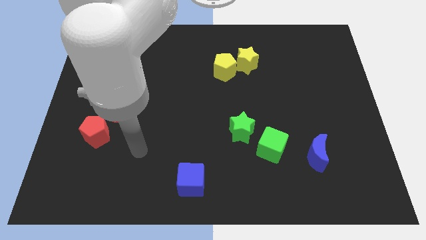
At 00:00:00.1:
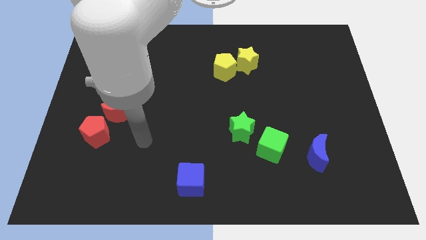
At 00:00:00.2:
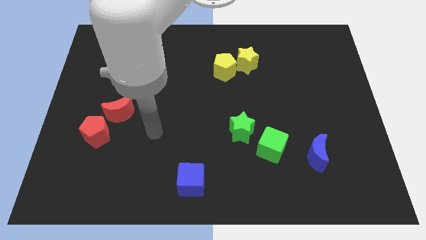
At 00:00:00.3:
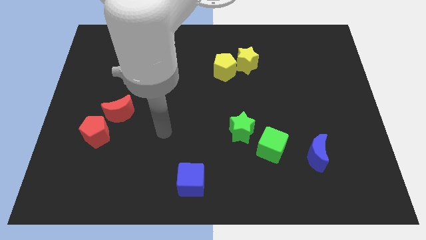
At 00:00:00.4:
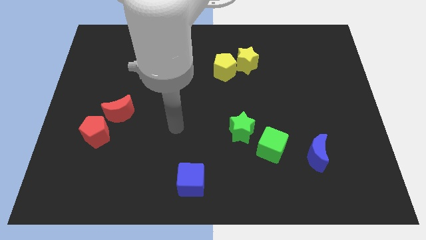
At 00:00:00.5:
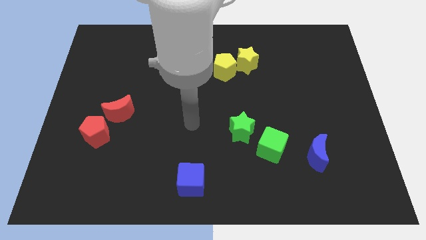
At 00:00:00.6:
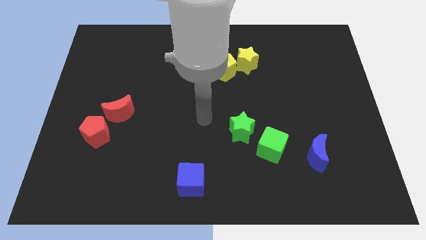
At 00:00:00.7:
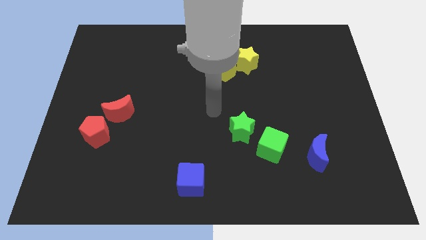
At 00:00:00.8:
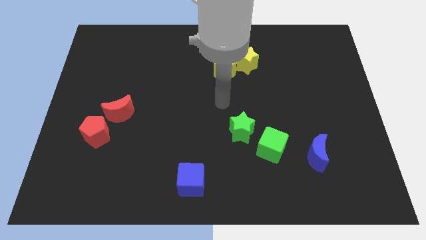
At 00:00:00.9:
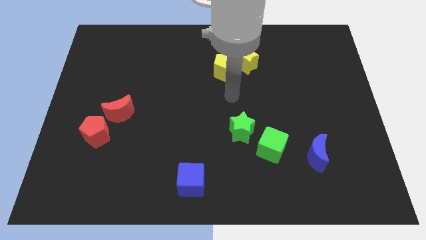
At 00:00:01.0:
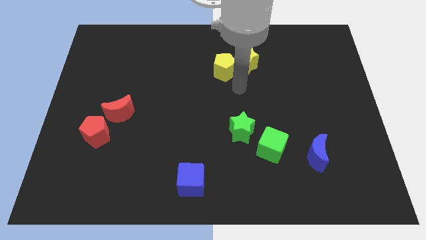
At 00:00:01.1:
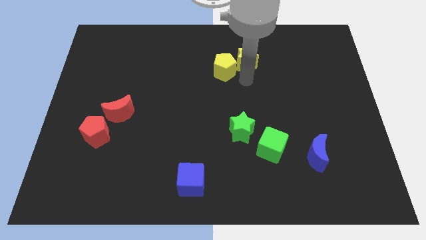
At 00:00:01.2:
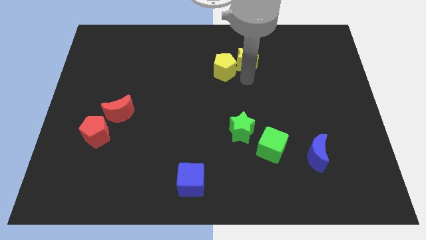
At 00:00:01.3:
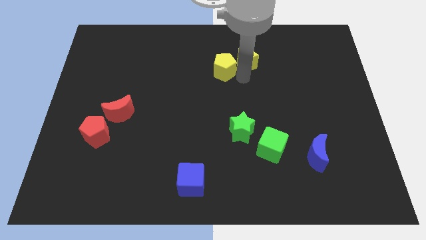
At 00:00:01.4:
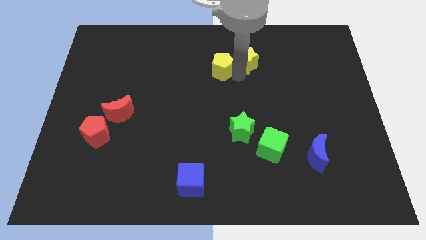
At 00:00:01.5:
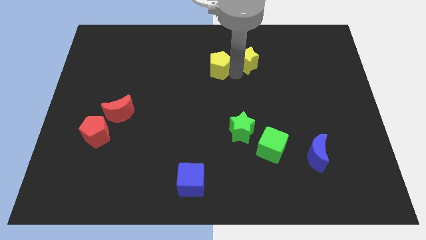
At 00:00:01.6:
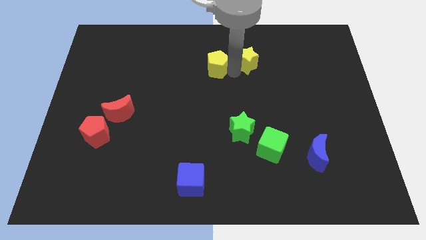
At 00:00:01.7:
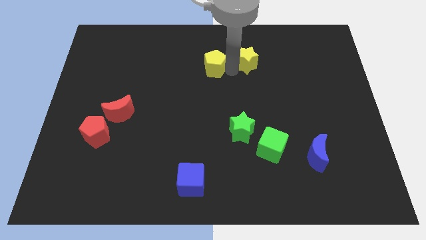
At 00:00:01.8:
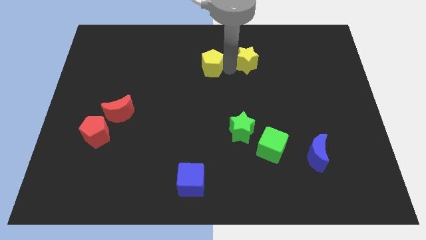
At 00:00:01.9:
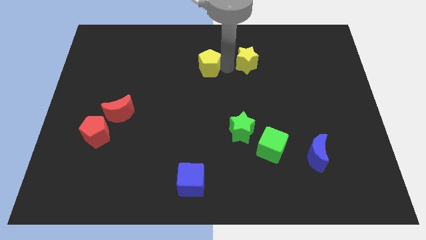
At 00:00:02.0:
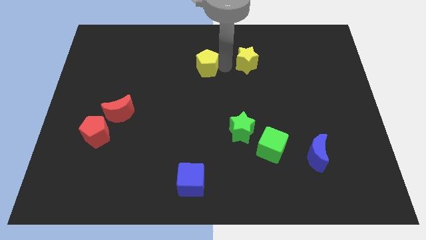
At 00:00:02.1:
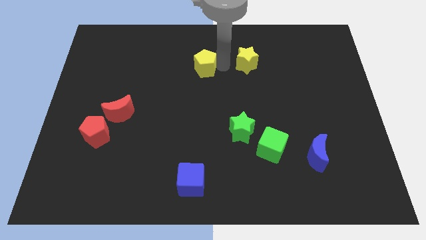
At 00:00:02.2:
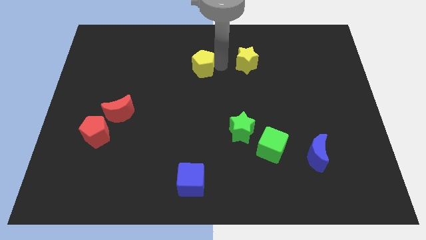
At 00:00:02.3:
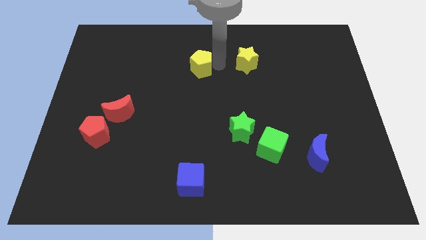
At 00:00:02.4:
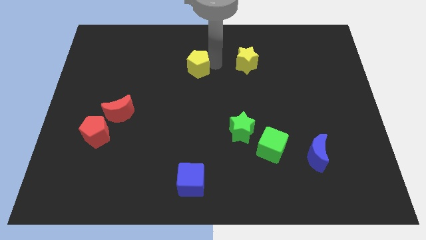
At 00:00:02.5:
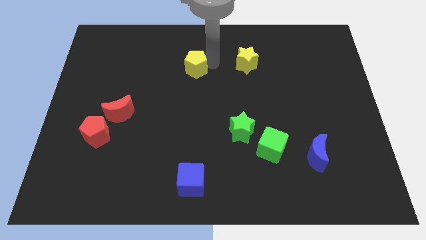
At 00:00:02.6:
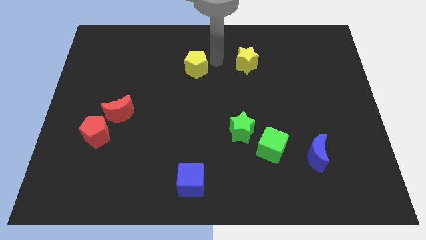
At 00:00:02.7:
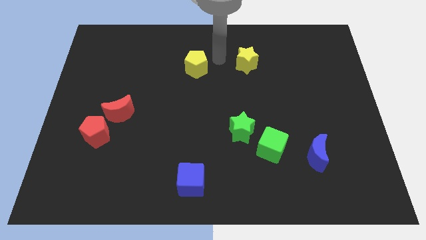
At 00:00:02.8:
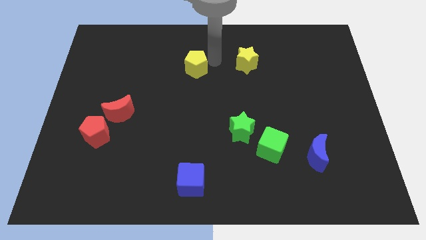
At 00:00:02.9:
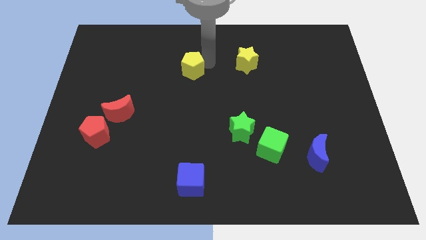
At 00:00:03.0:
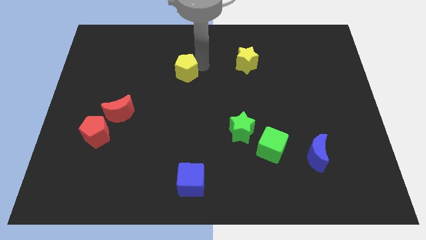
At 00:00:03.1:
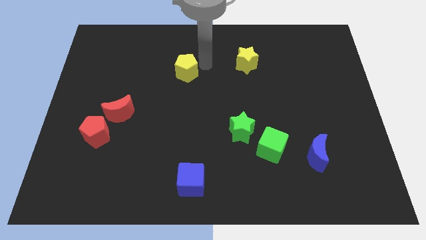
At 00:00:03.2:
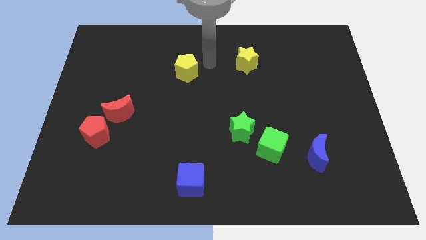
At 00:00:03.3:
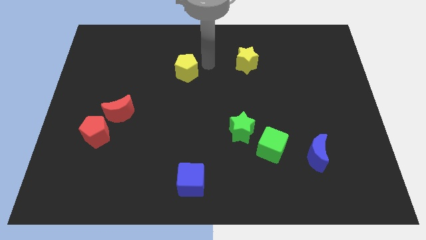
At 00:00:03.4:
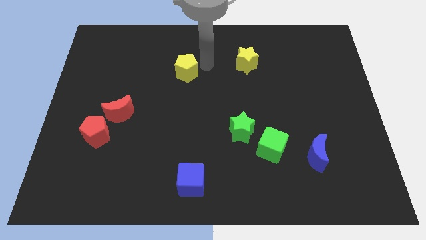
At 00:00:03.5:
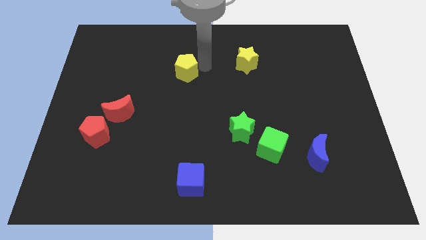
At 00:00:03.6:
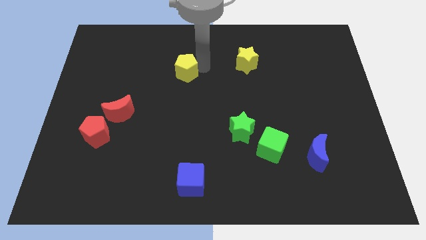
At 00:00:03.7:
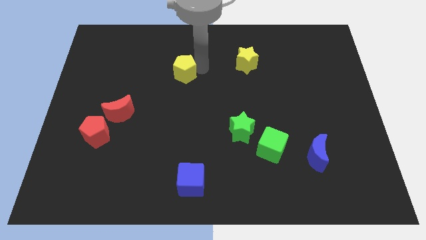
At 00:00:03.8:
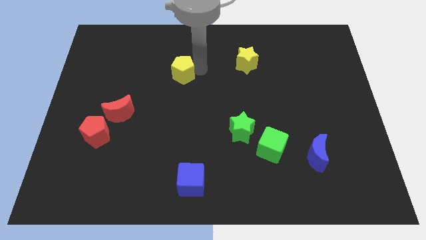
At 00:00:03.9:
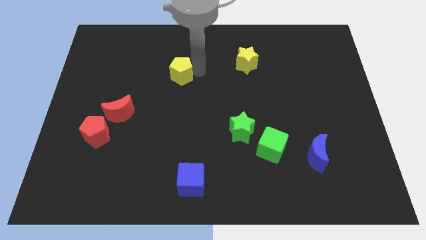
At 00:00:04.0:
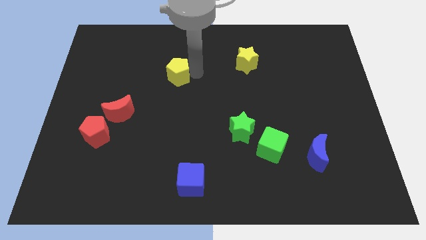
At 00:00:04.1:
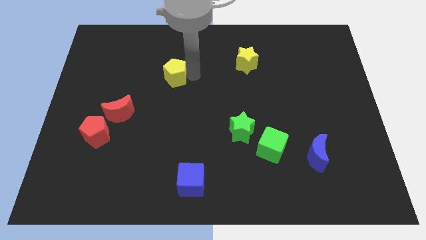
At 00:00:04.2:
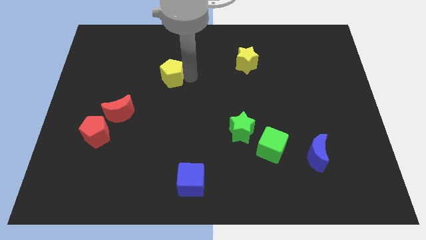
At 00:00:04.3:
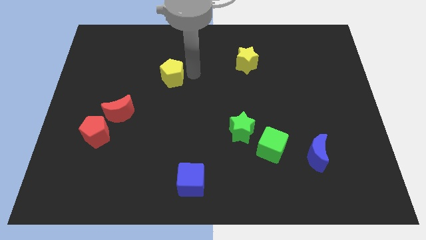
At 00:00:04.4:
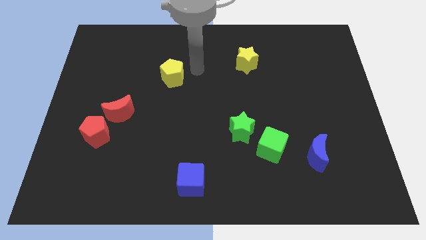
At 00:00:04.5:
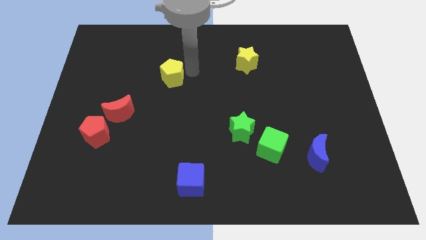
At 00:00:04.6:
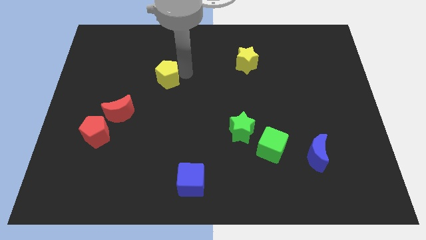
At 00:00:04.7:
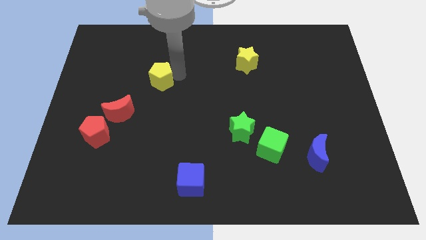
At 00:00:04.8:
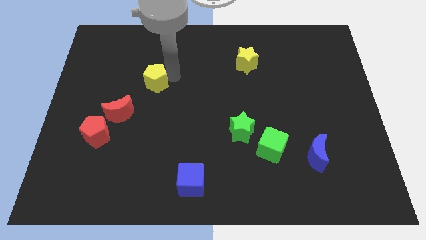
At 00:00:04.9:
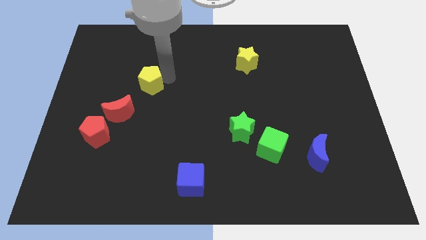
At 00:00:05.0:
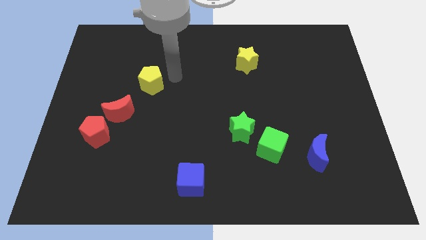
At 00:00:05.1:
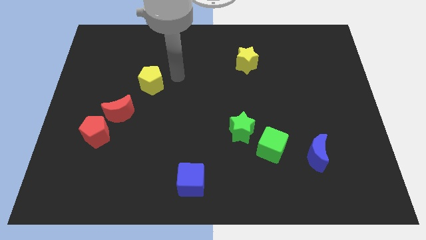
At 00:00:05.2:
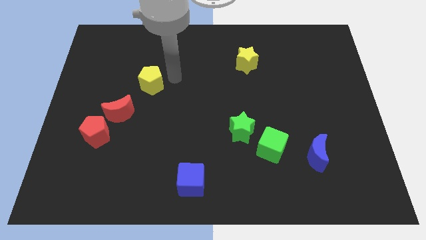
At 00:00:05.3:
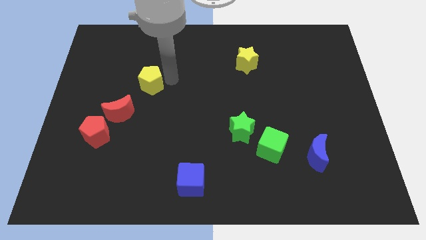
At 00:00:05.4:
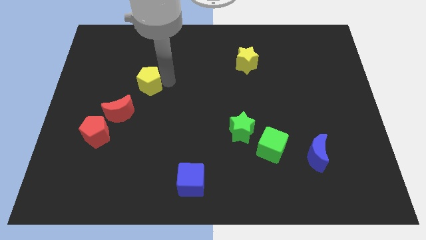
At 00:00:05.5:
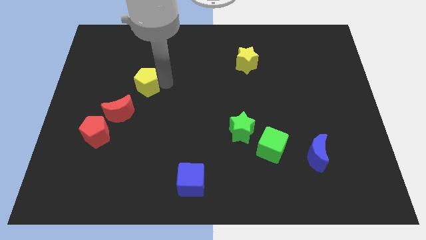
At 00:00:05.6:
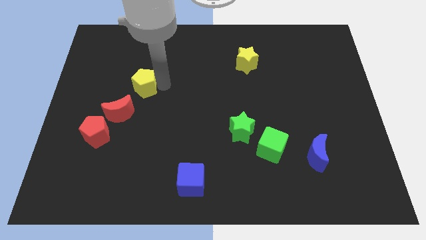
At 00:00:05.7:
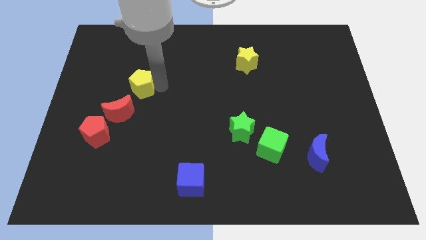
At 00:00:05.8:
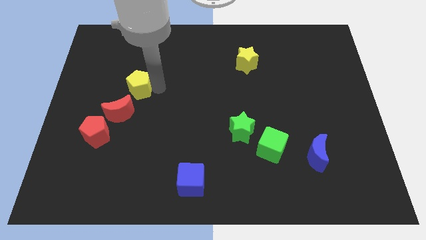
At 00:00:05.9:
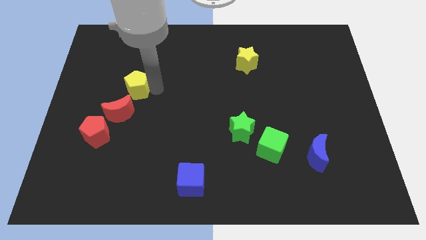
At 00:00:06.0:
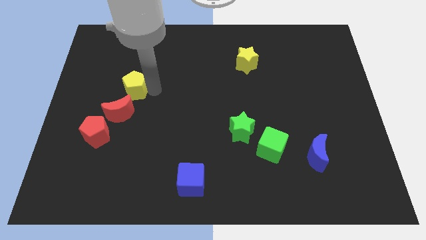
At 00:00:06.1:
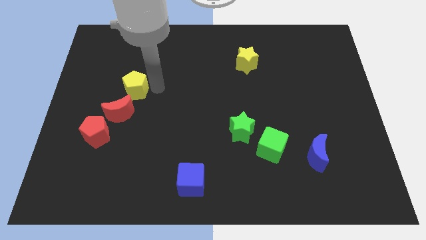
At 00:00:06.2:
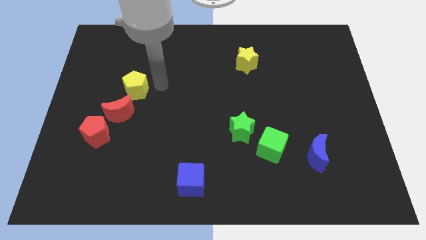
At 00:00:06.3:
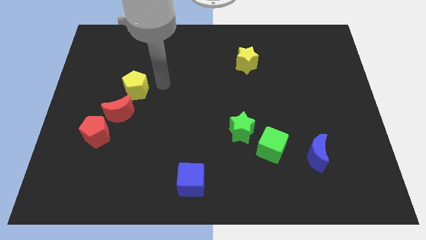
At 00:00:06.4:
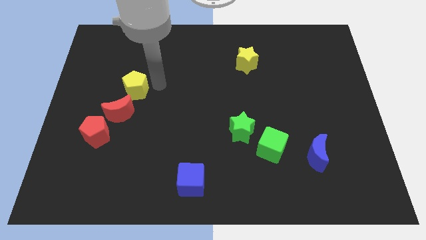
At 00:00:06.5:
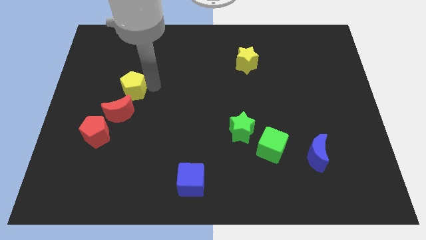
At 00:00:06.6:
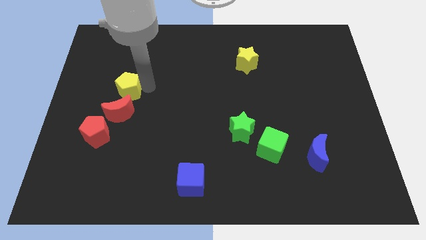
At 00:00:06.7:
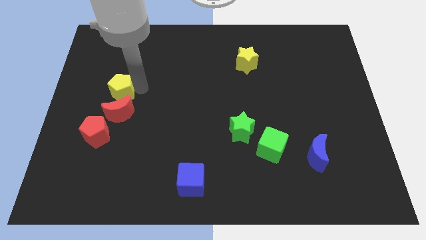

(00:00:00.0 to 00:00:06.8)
slide the yellow pentagon to the top left side of the red moon

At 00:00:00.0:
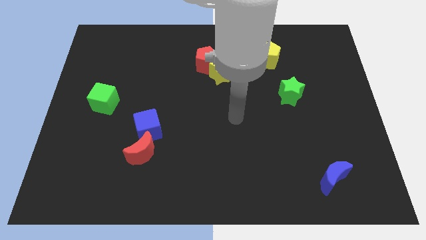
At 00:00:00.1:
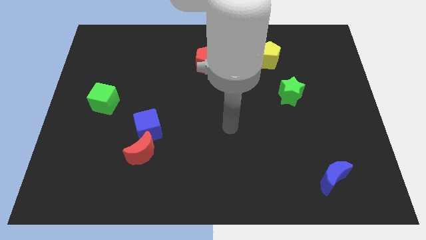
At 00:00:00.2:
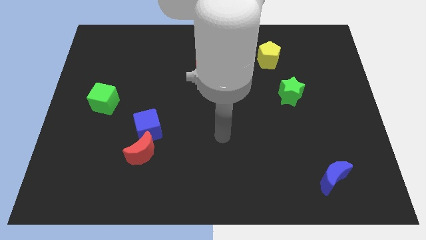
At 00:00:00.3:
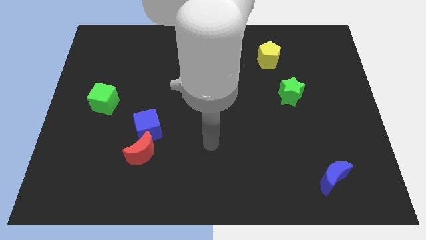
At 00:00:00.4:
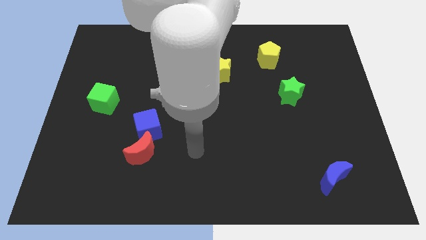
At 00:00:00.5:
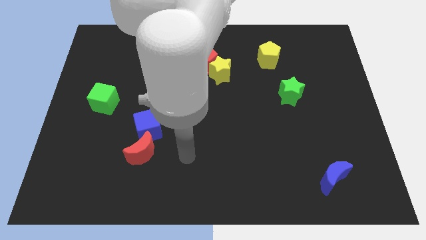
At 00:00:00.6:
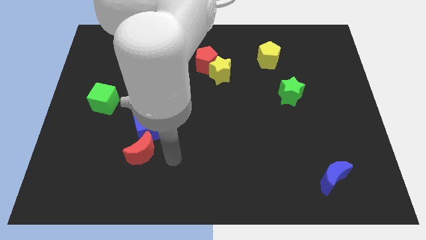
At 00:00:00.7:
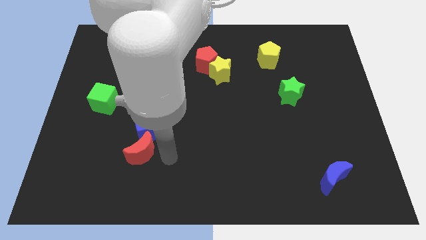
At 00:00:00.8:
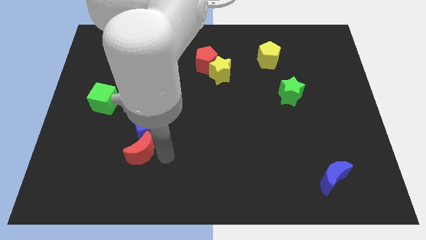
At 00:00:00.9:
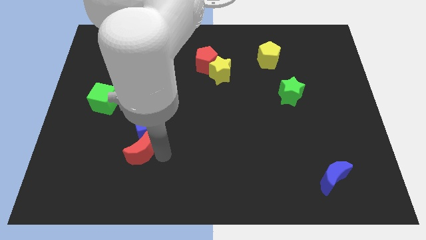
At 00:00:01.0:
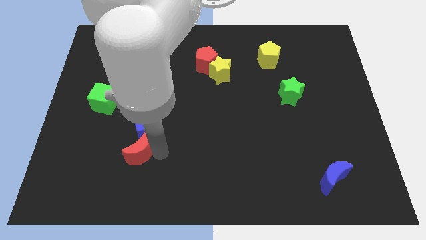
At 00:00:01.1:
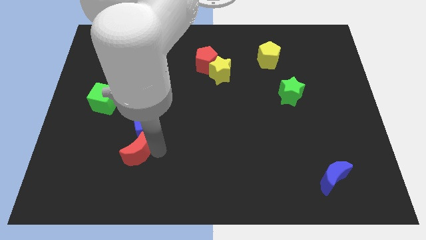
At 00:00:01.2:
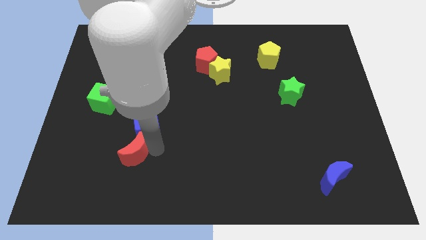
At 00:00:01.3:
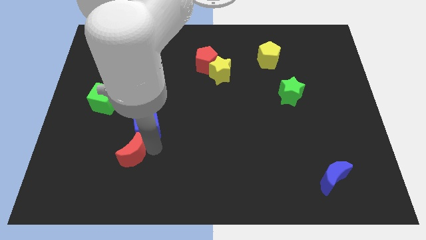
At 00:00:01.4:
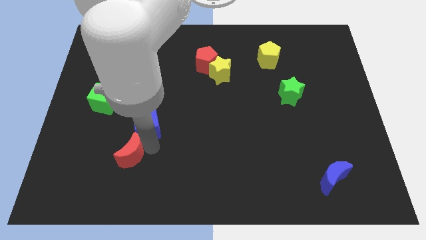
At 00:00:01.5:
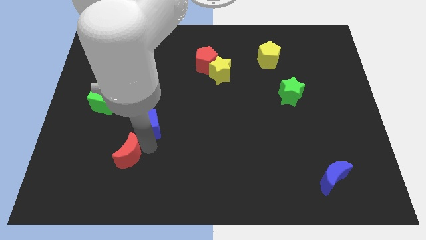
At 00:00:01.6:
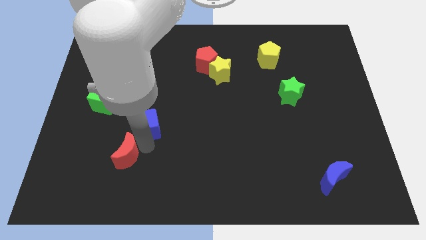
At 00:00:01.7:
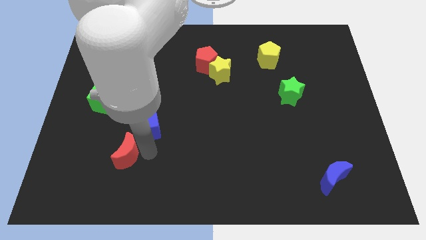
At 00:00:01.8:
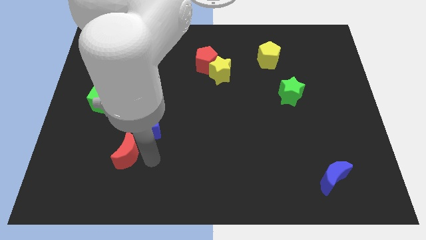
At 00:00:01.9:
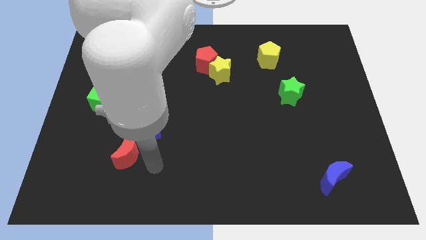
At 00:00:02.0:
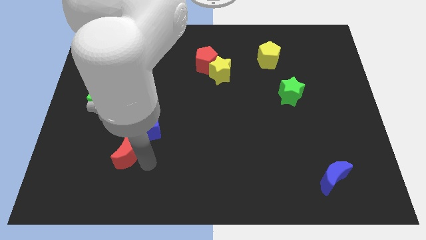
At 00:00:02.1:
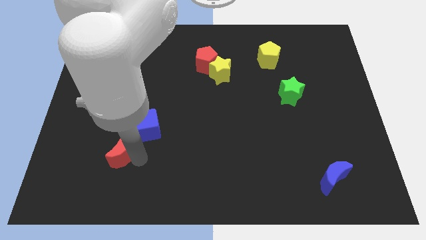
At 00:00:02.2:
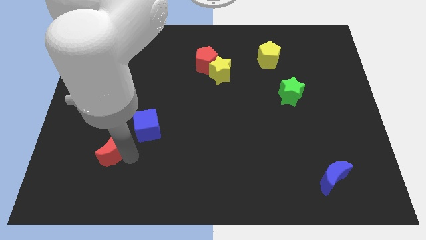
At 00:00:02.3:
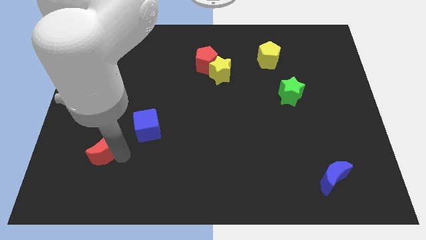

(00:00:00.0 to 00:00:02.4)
put the red moon below the green cube
